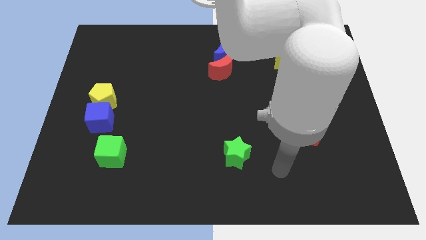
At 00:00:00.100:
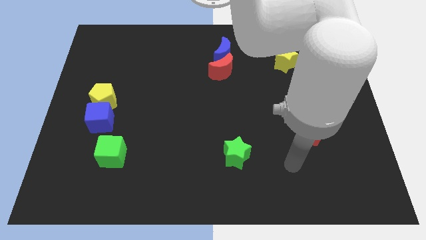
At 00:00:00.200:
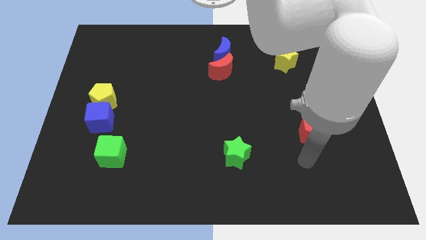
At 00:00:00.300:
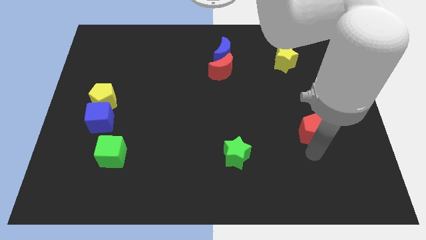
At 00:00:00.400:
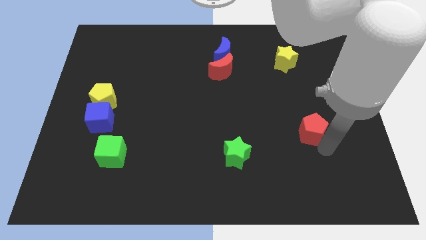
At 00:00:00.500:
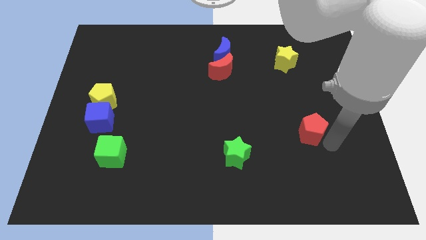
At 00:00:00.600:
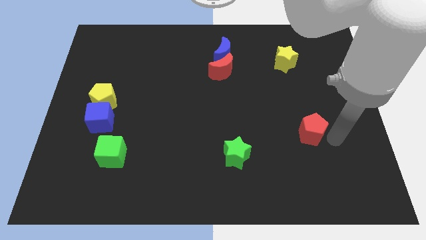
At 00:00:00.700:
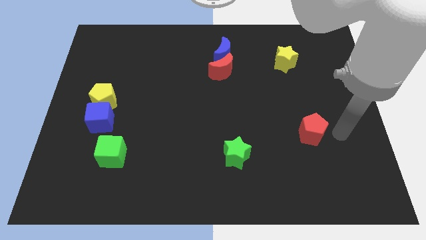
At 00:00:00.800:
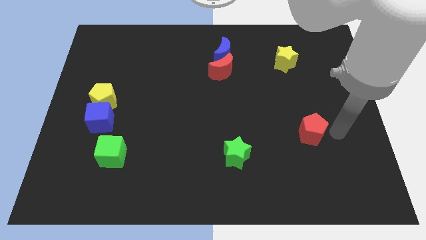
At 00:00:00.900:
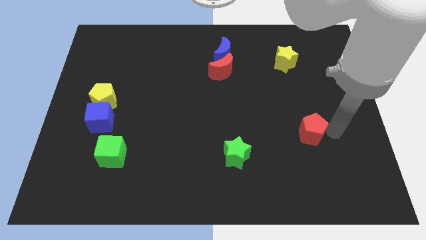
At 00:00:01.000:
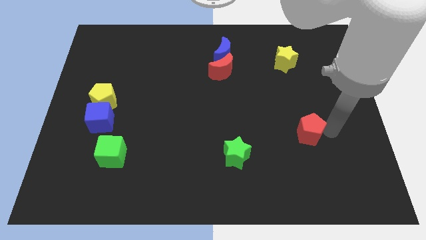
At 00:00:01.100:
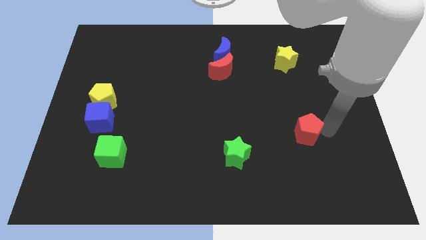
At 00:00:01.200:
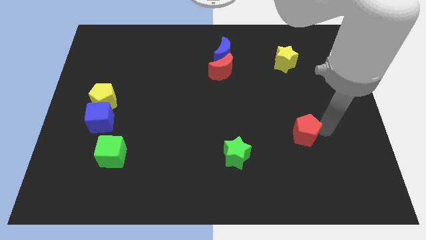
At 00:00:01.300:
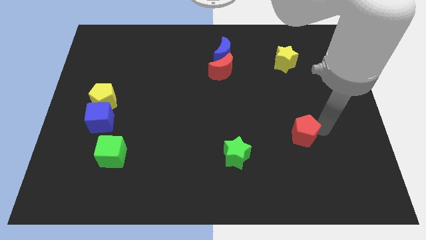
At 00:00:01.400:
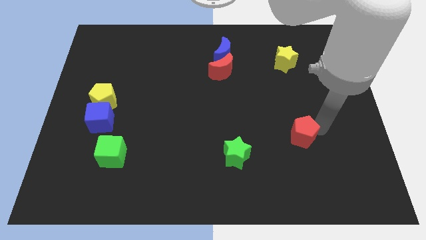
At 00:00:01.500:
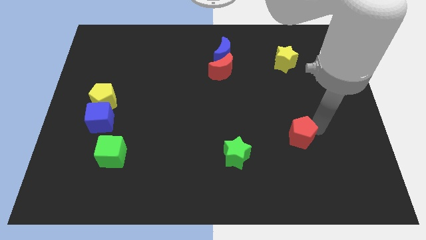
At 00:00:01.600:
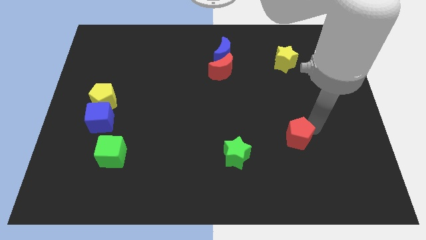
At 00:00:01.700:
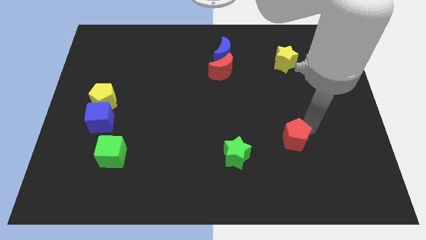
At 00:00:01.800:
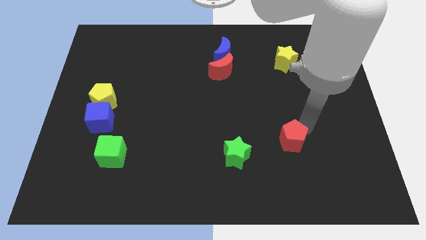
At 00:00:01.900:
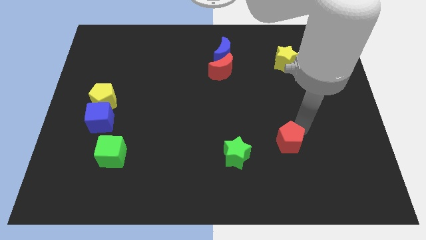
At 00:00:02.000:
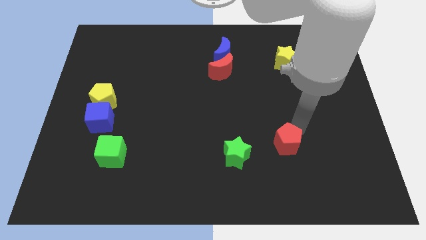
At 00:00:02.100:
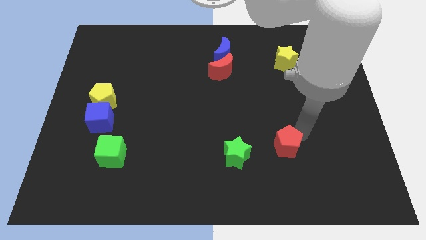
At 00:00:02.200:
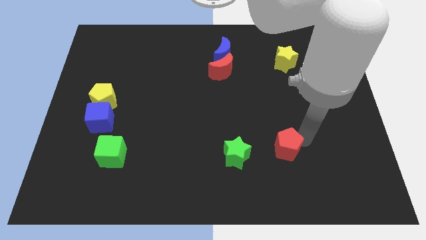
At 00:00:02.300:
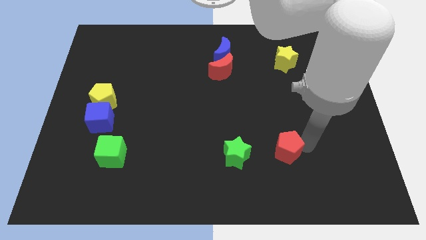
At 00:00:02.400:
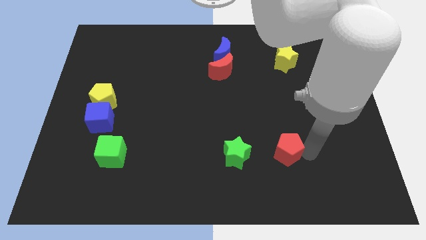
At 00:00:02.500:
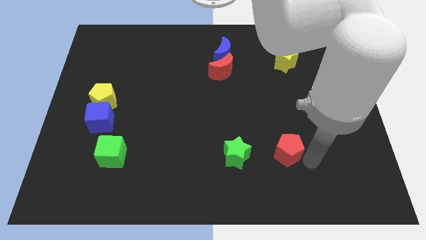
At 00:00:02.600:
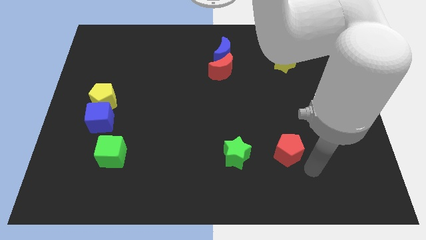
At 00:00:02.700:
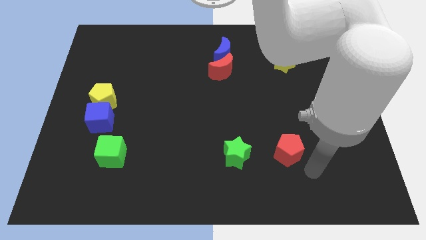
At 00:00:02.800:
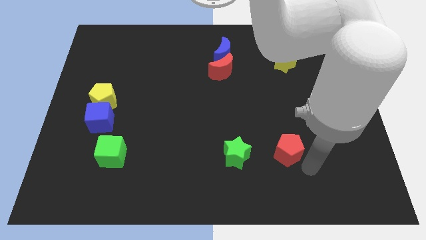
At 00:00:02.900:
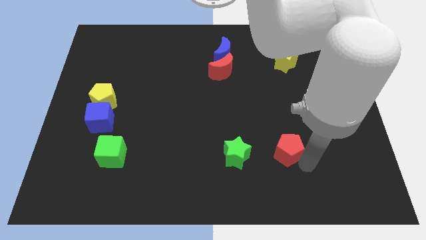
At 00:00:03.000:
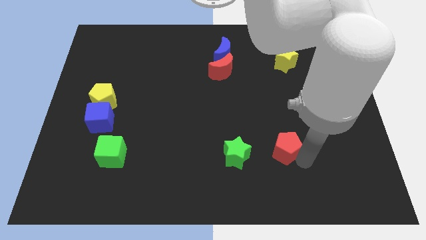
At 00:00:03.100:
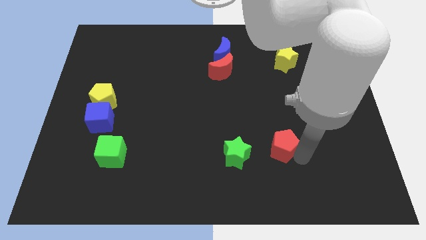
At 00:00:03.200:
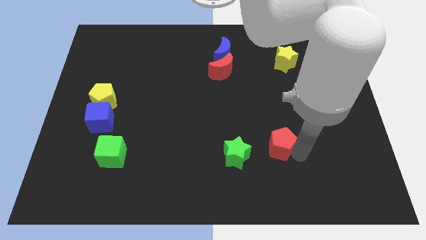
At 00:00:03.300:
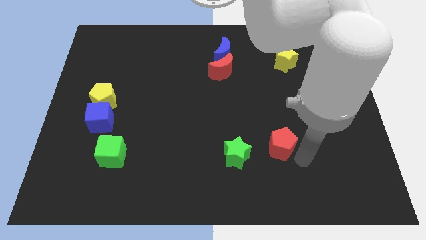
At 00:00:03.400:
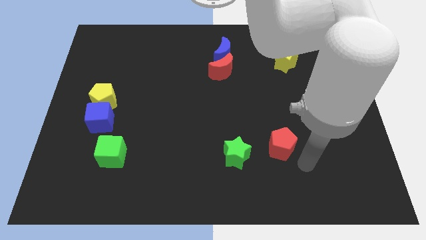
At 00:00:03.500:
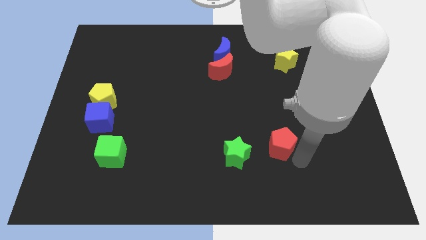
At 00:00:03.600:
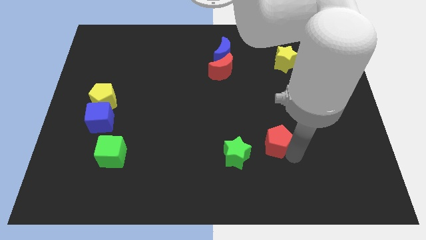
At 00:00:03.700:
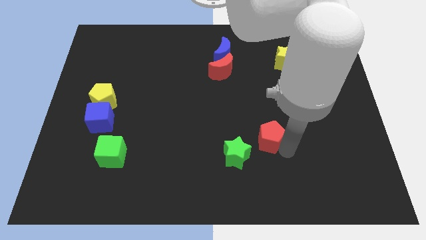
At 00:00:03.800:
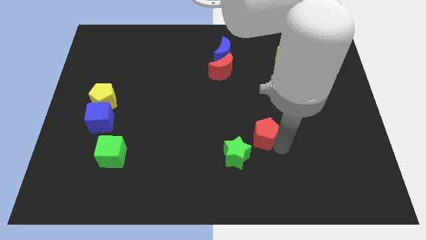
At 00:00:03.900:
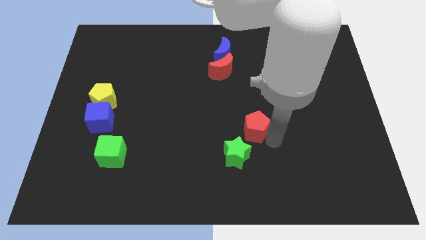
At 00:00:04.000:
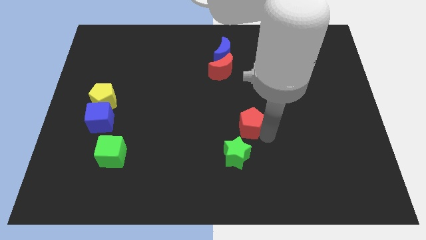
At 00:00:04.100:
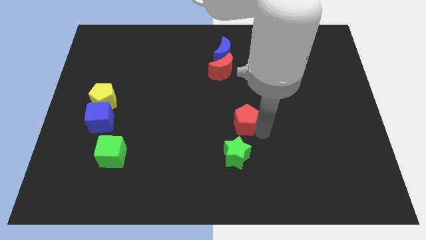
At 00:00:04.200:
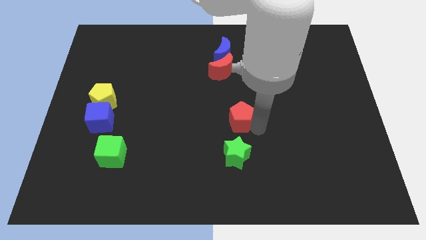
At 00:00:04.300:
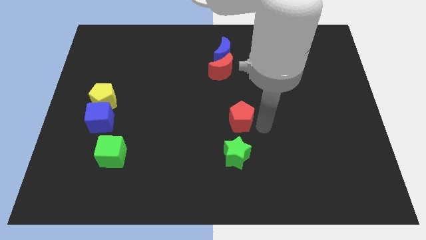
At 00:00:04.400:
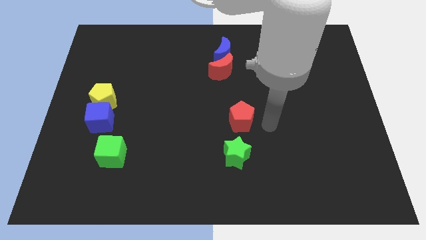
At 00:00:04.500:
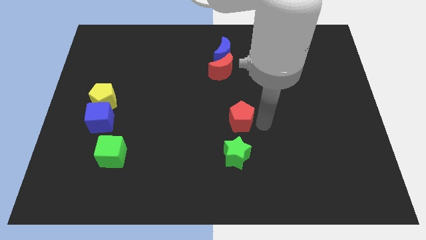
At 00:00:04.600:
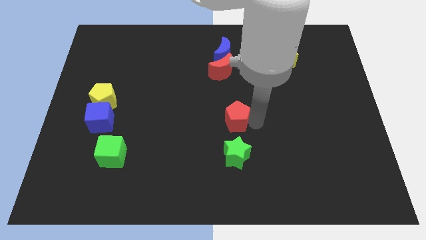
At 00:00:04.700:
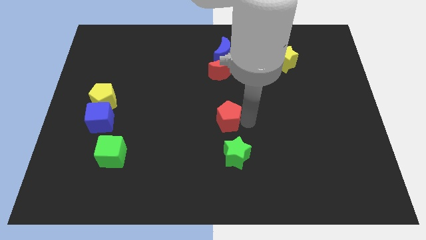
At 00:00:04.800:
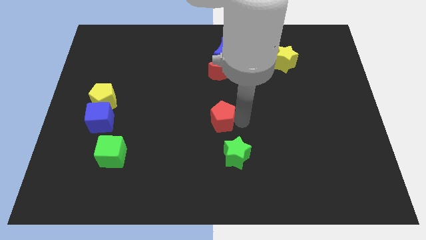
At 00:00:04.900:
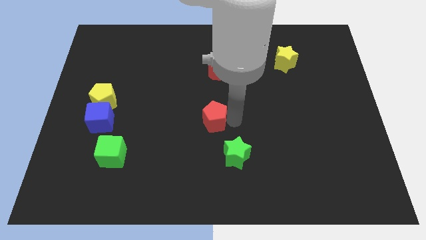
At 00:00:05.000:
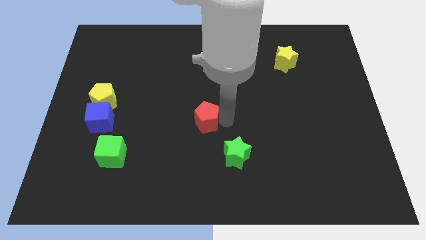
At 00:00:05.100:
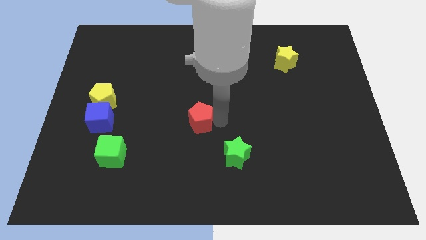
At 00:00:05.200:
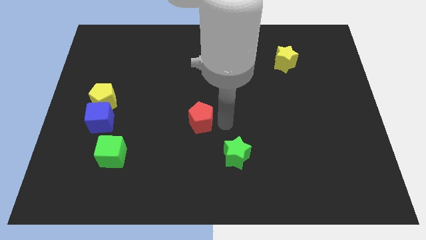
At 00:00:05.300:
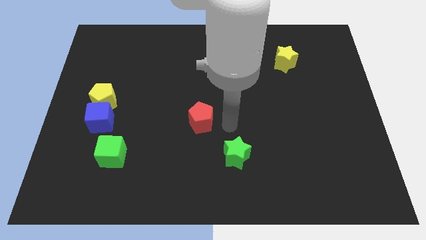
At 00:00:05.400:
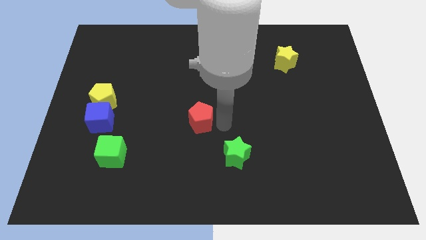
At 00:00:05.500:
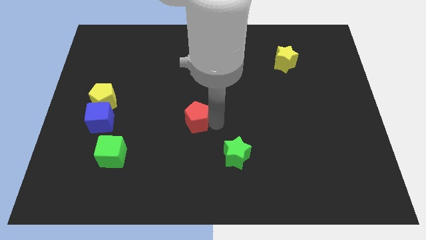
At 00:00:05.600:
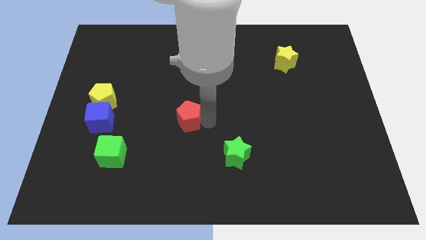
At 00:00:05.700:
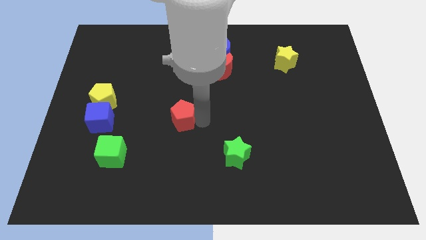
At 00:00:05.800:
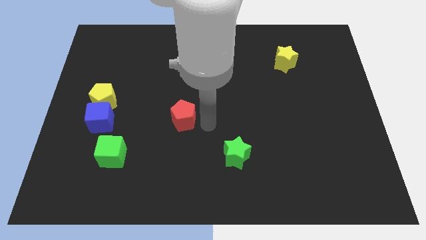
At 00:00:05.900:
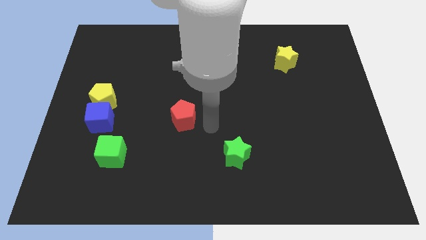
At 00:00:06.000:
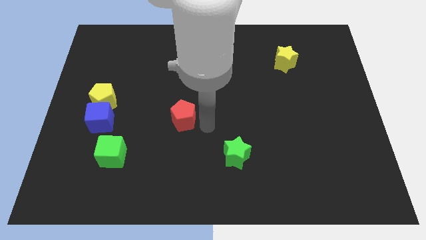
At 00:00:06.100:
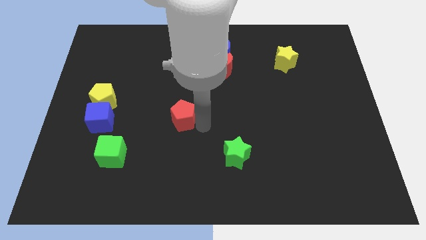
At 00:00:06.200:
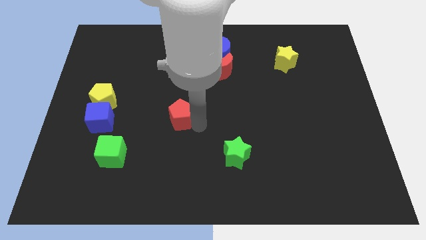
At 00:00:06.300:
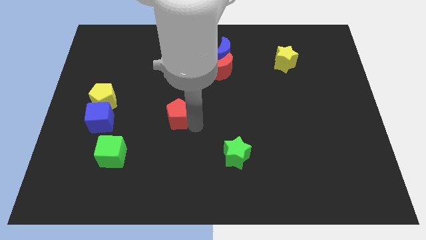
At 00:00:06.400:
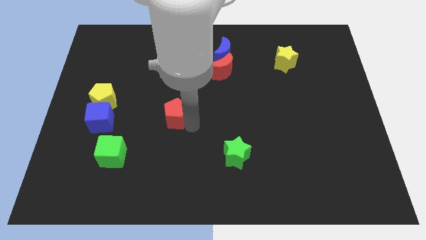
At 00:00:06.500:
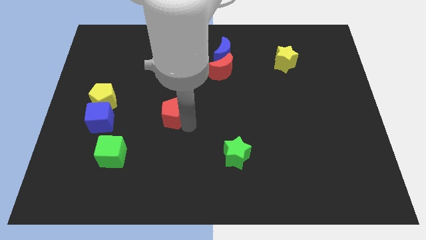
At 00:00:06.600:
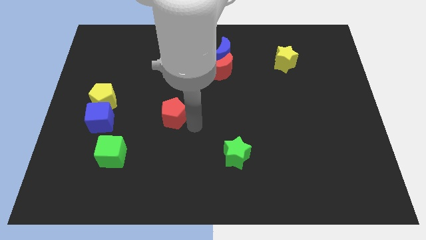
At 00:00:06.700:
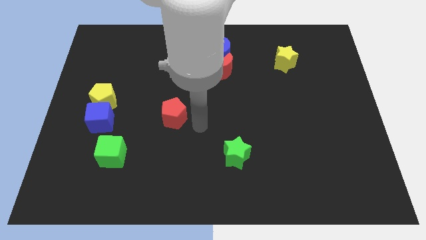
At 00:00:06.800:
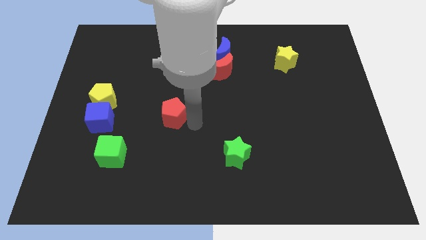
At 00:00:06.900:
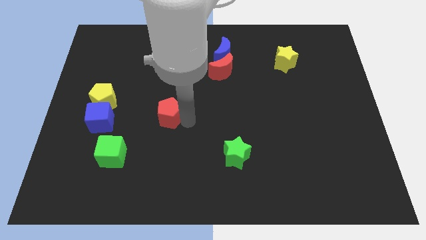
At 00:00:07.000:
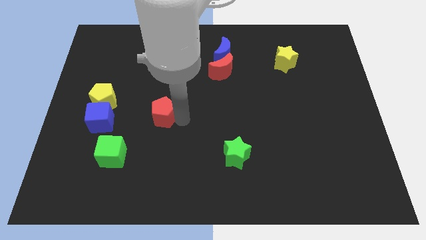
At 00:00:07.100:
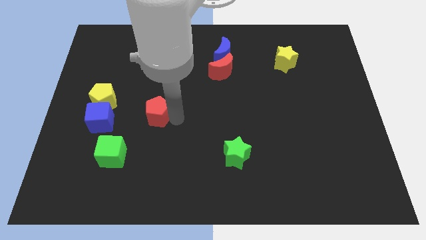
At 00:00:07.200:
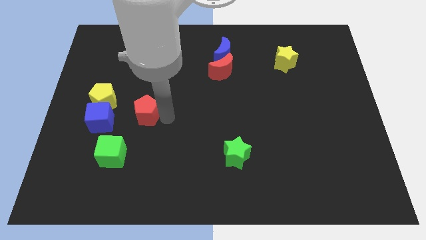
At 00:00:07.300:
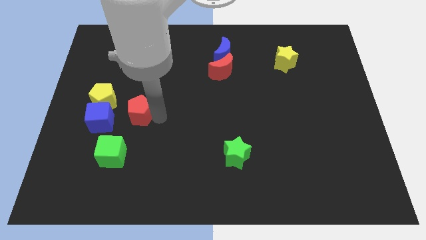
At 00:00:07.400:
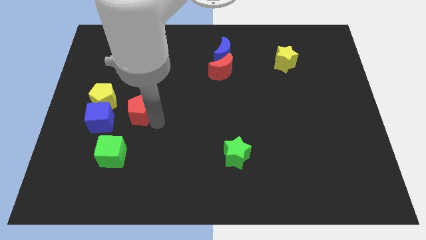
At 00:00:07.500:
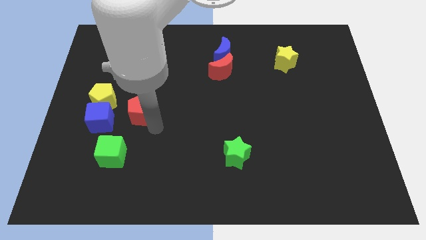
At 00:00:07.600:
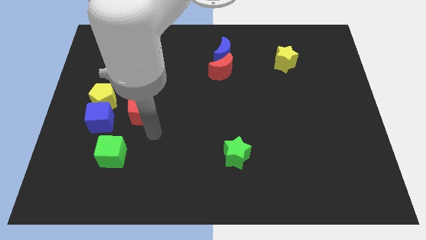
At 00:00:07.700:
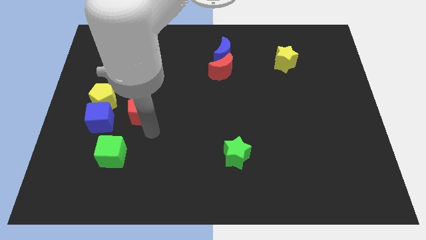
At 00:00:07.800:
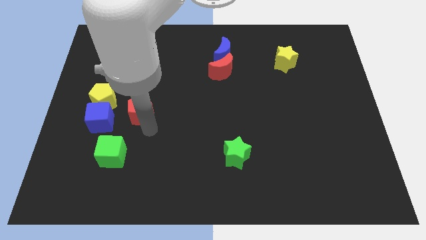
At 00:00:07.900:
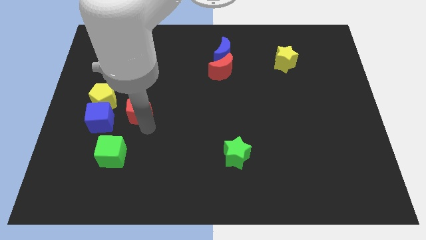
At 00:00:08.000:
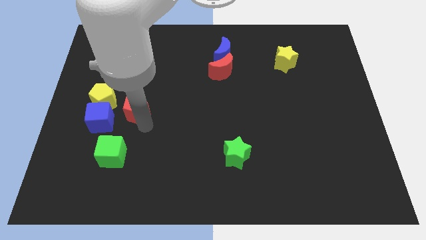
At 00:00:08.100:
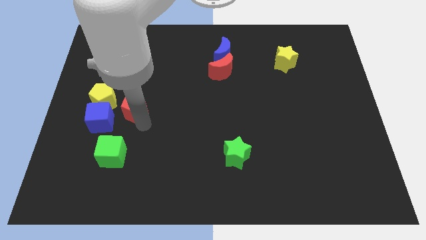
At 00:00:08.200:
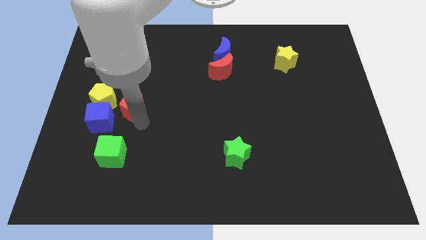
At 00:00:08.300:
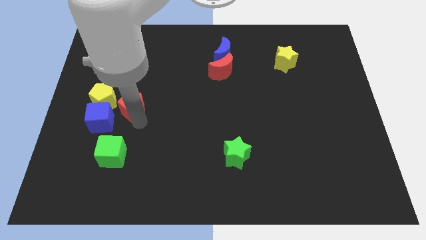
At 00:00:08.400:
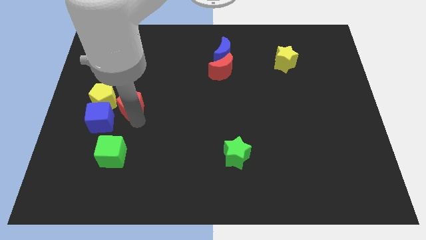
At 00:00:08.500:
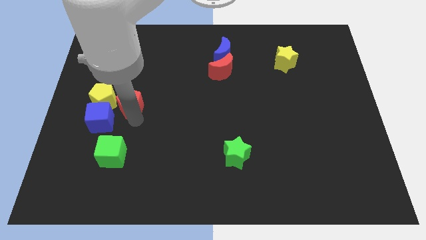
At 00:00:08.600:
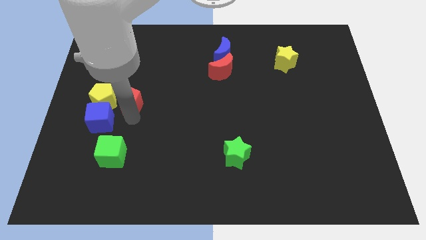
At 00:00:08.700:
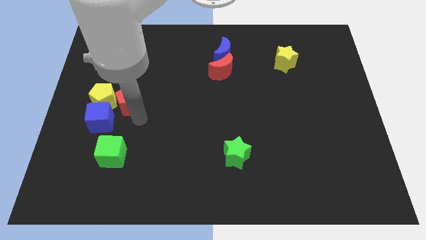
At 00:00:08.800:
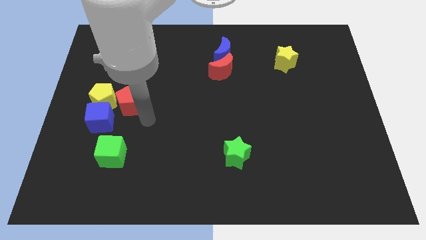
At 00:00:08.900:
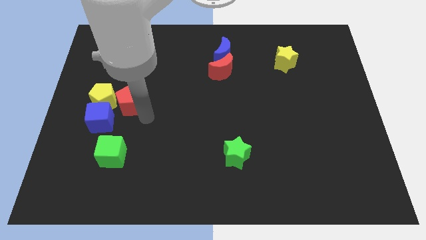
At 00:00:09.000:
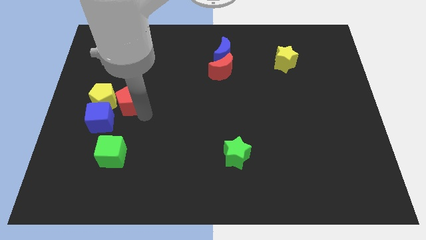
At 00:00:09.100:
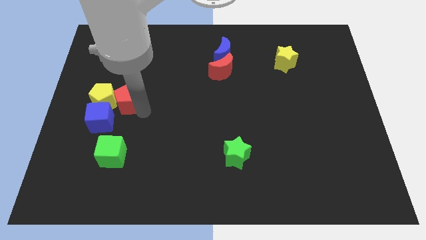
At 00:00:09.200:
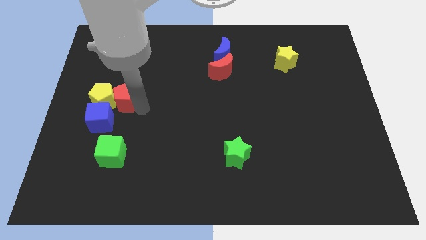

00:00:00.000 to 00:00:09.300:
put the red pentagon above the blue cube
